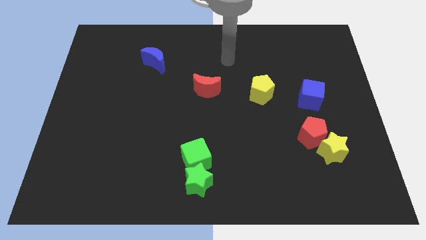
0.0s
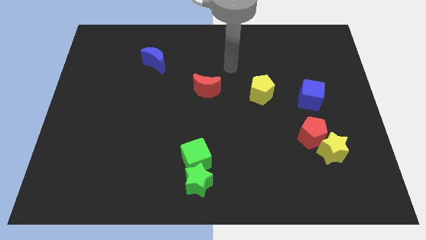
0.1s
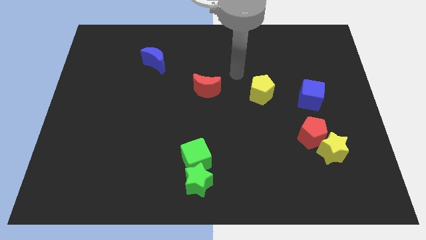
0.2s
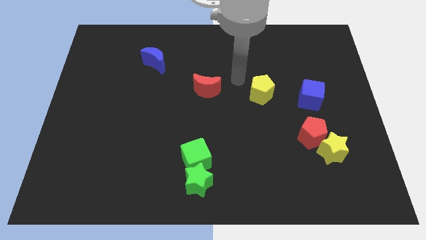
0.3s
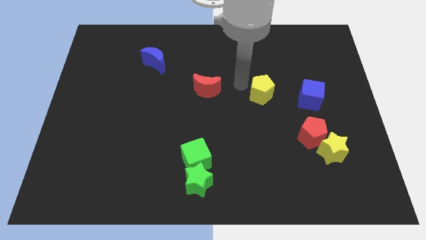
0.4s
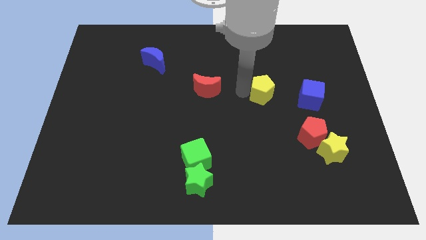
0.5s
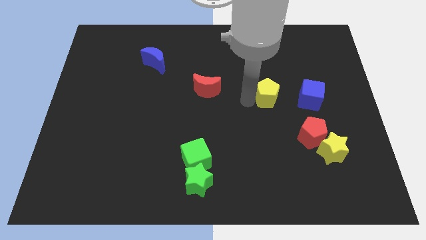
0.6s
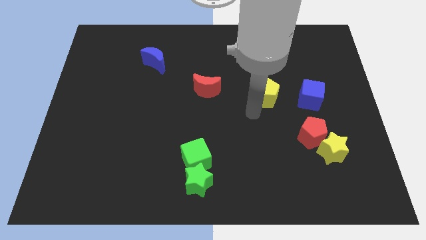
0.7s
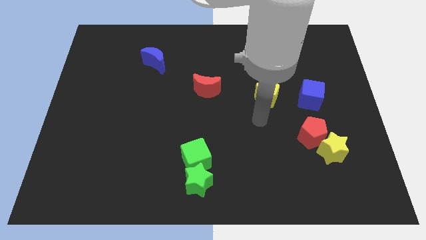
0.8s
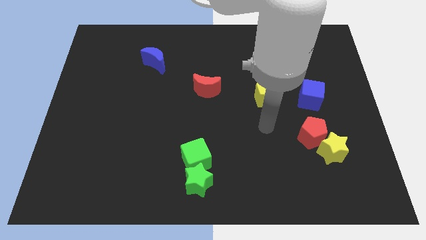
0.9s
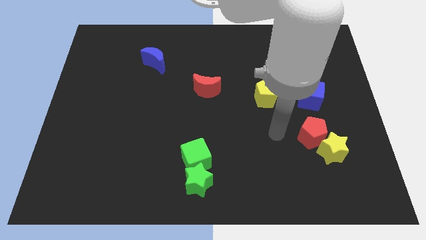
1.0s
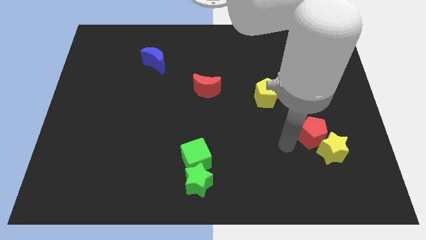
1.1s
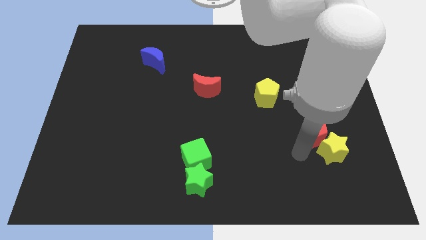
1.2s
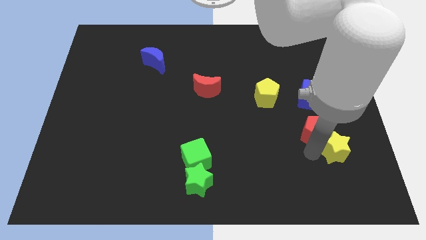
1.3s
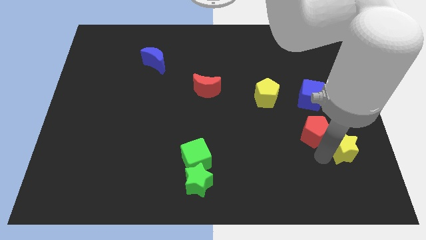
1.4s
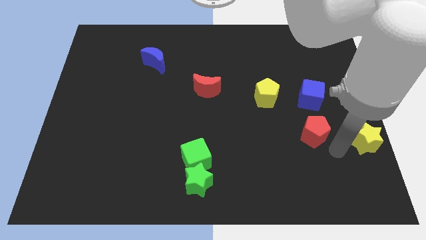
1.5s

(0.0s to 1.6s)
separate the red pentagon from the yellow star

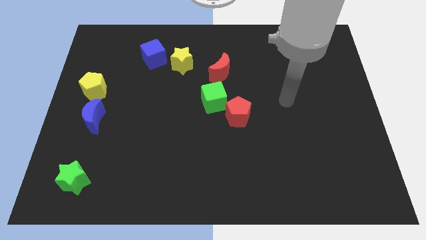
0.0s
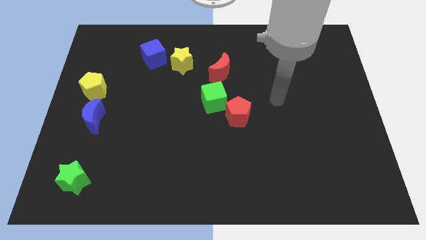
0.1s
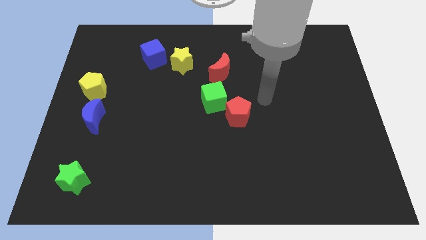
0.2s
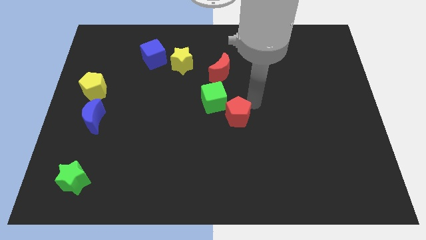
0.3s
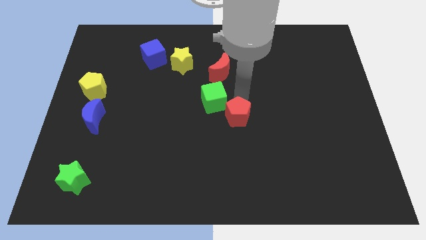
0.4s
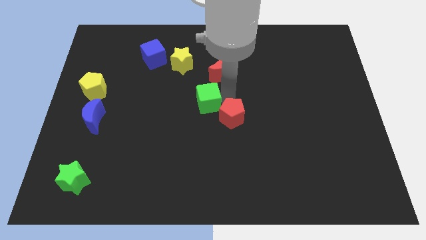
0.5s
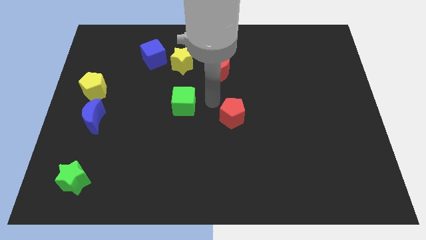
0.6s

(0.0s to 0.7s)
move the red pentagon away from the green cube

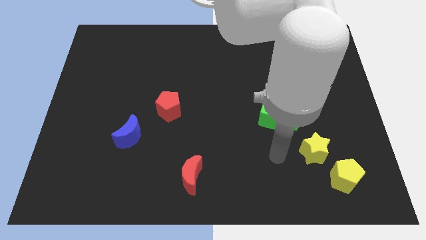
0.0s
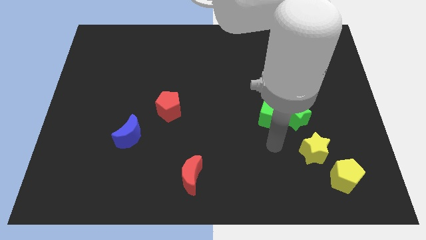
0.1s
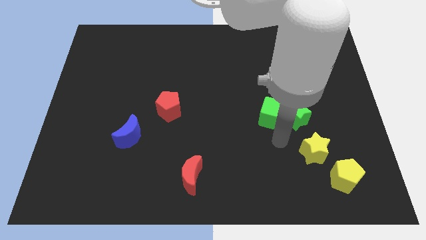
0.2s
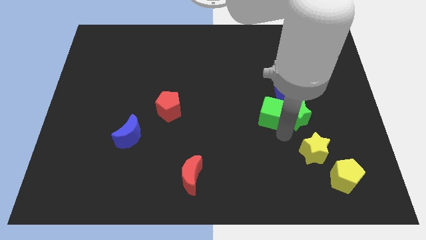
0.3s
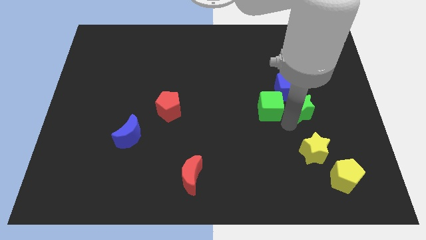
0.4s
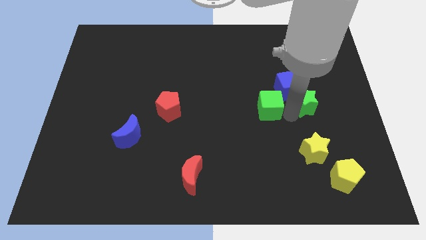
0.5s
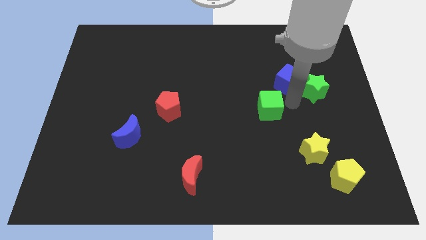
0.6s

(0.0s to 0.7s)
move the green cube away from the green star and blue cube

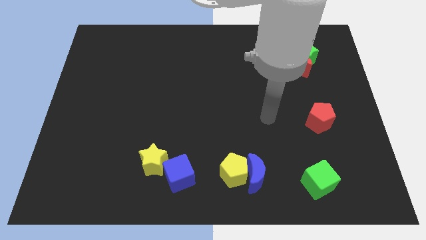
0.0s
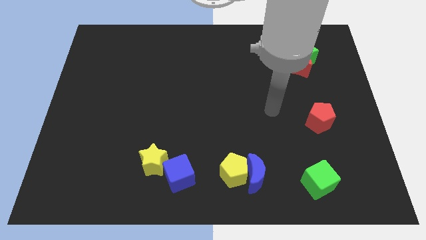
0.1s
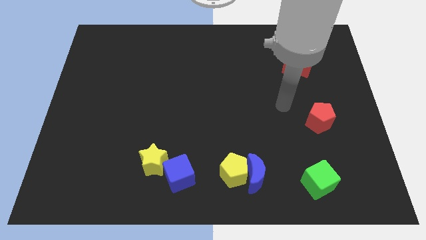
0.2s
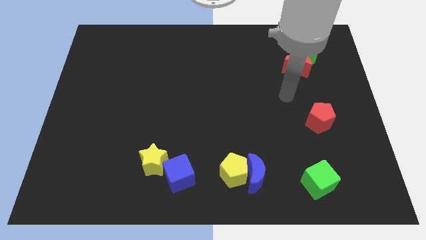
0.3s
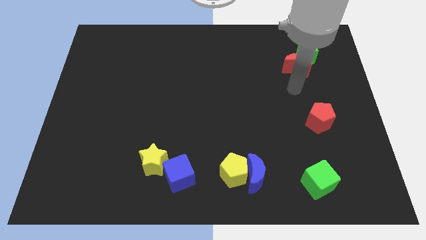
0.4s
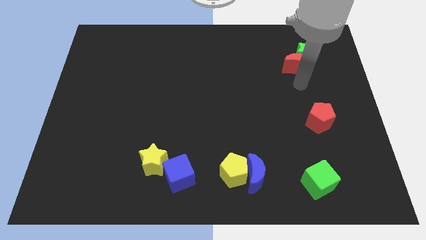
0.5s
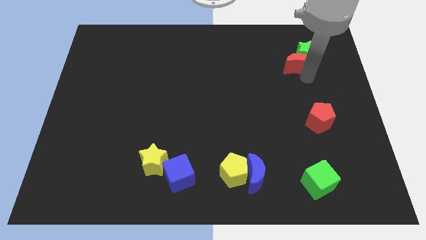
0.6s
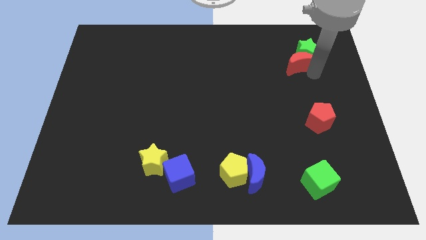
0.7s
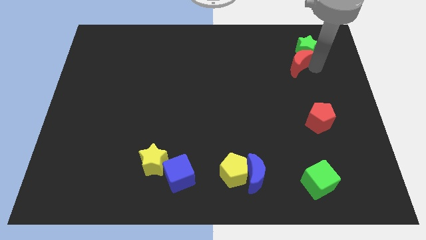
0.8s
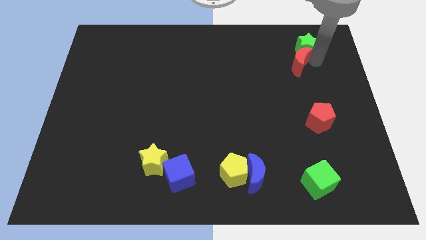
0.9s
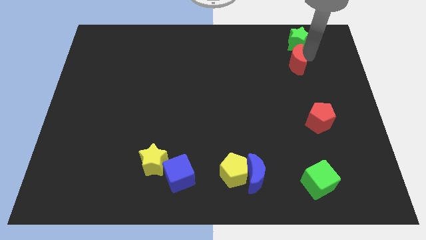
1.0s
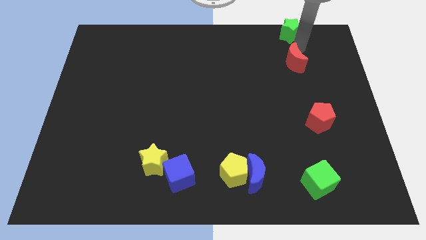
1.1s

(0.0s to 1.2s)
separate the red moon from the green star

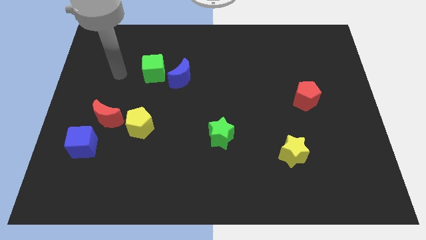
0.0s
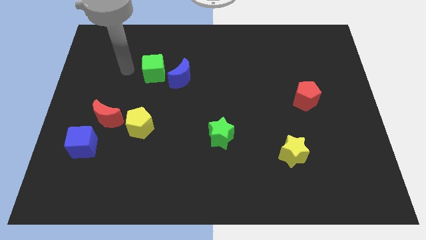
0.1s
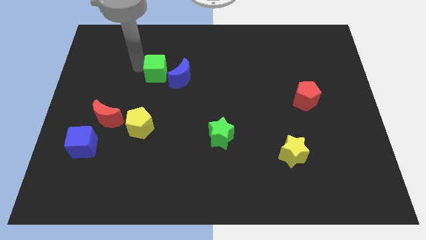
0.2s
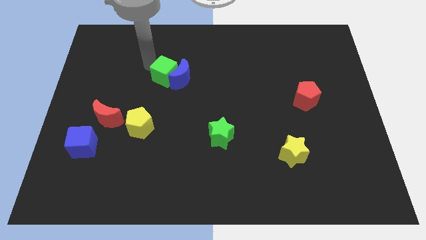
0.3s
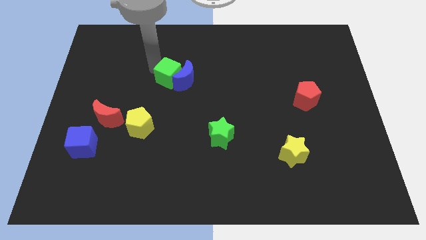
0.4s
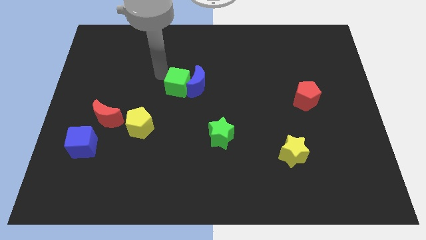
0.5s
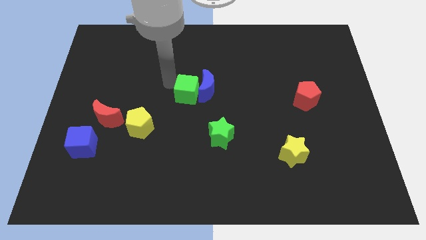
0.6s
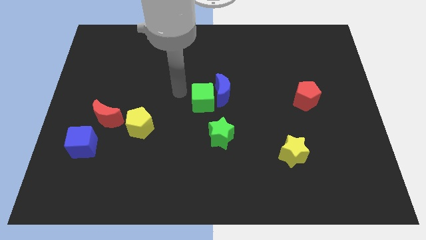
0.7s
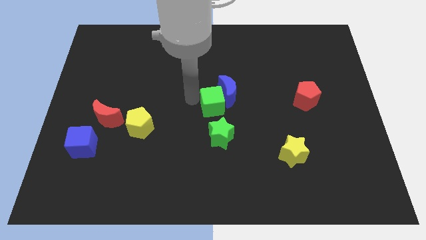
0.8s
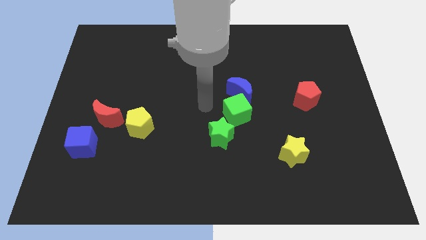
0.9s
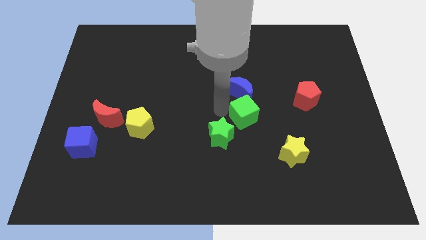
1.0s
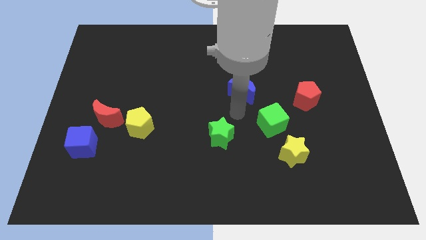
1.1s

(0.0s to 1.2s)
separate the blue moon from the green cube

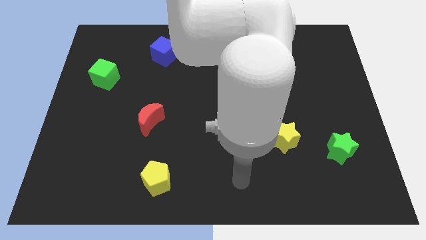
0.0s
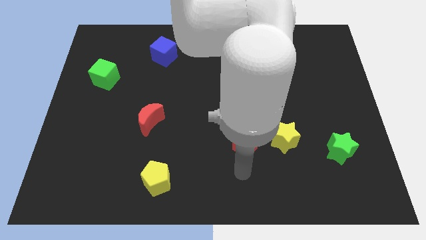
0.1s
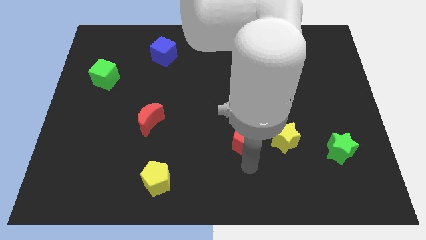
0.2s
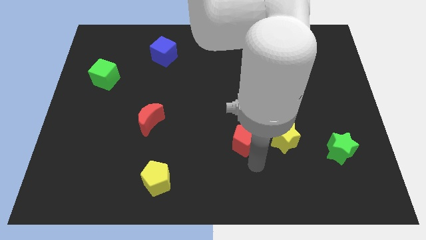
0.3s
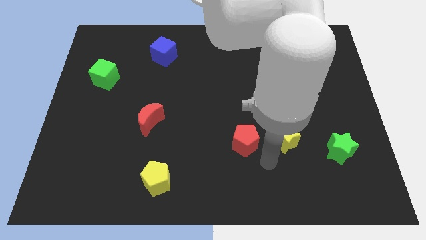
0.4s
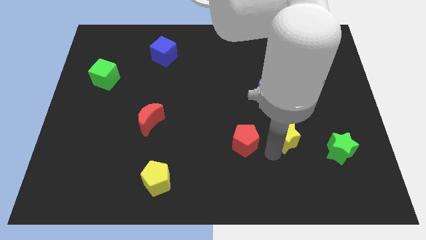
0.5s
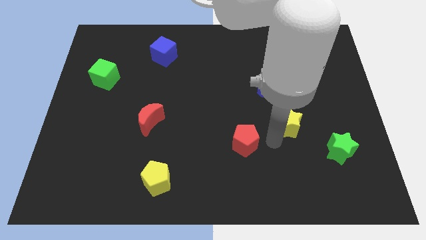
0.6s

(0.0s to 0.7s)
pull the red pentagon apart from the yellow star

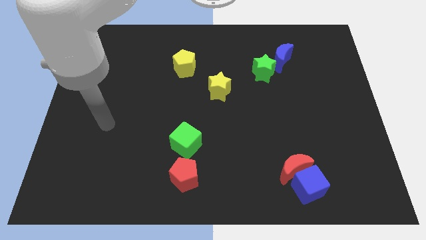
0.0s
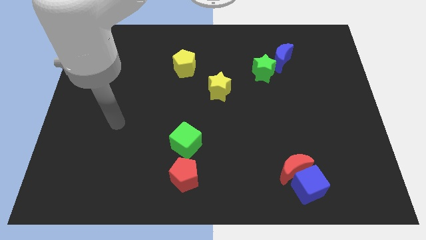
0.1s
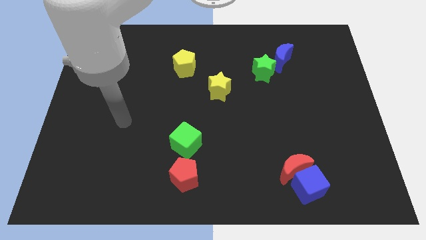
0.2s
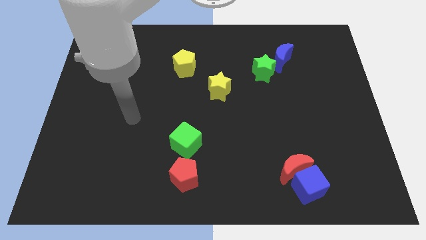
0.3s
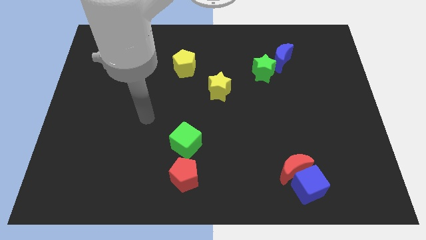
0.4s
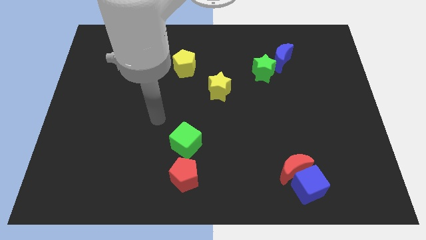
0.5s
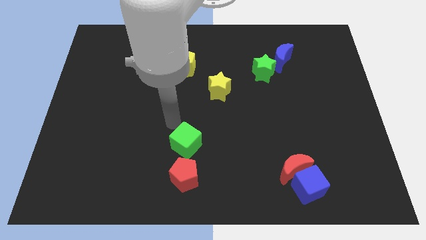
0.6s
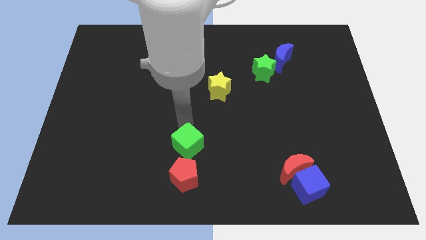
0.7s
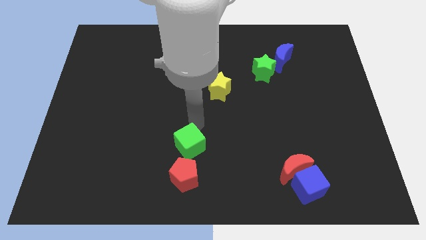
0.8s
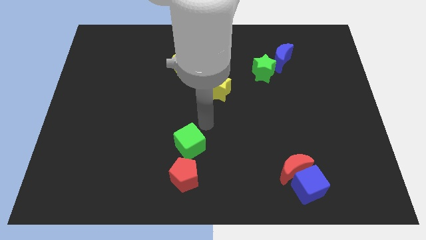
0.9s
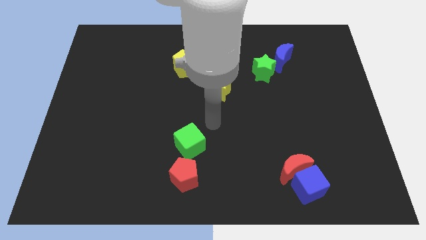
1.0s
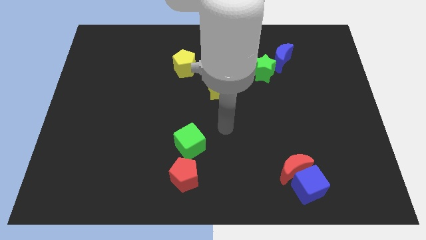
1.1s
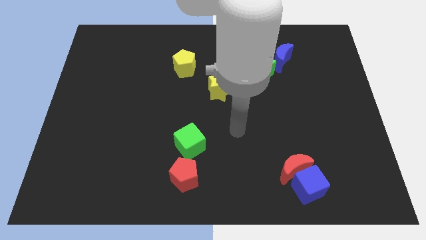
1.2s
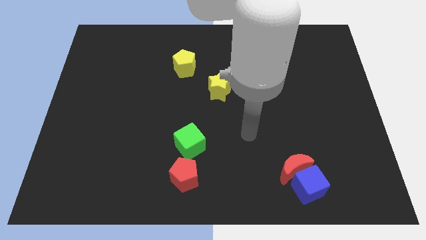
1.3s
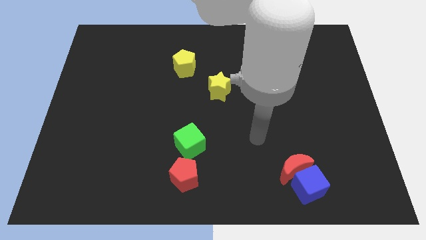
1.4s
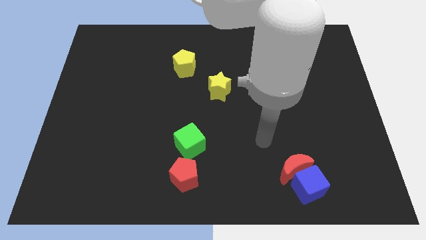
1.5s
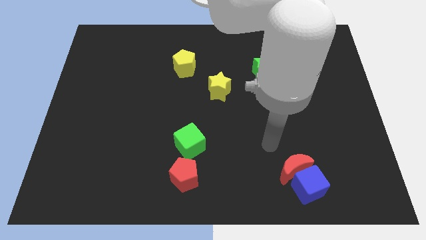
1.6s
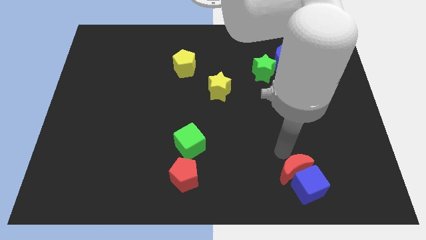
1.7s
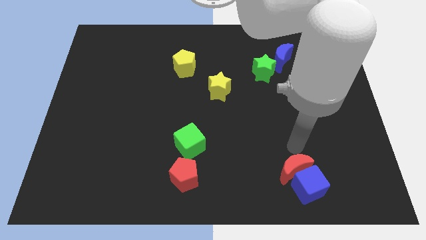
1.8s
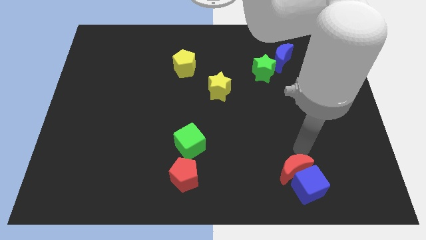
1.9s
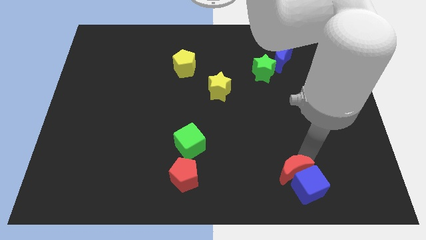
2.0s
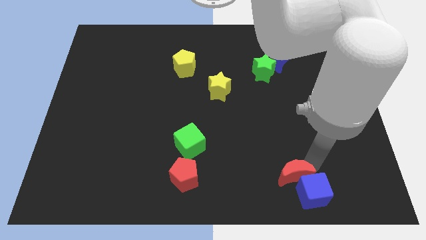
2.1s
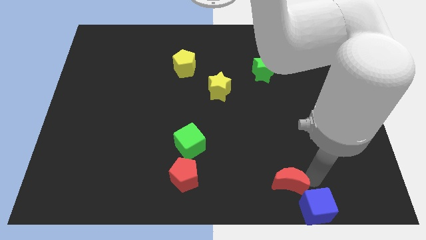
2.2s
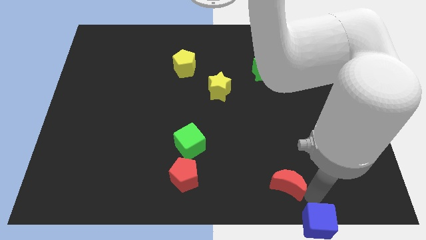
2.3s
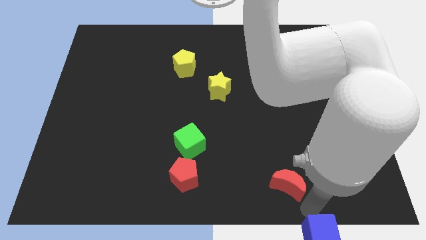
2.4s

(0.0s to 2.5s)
pull the red moon apart from the blue cube

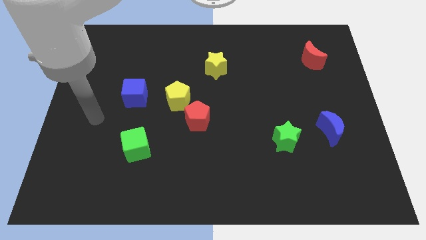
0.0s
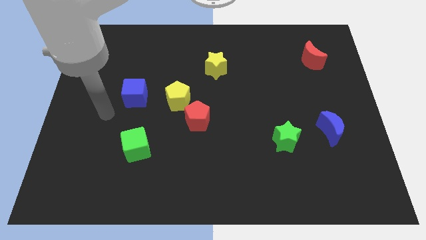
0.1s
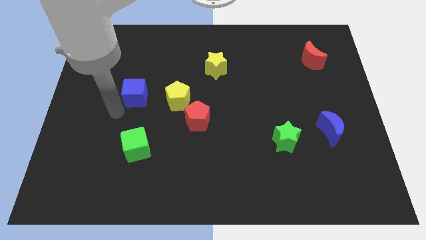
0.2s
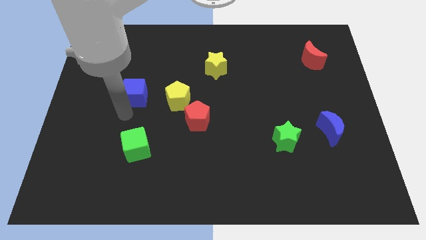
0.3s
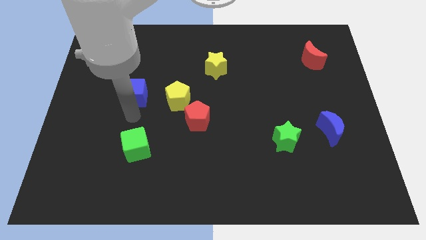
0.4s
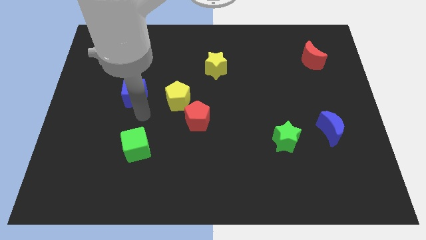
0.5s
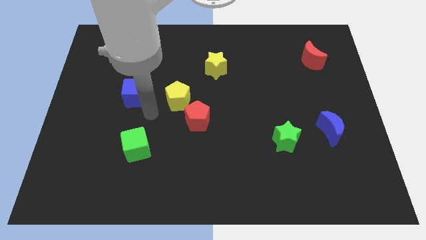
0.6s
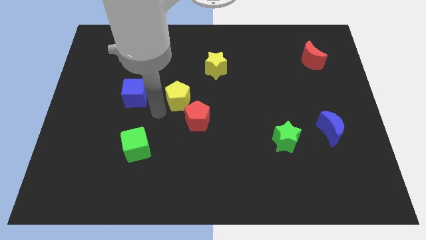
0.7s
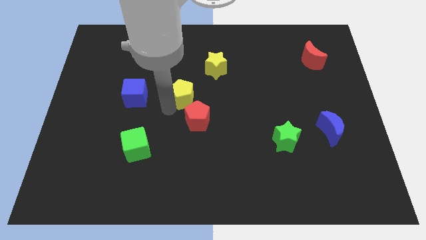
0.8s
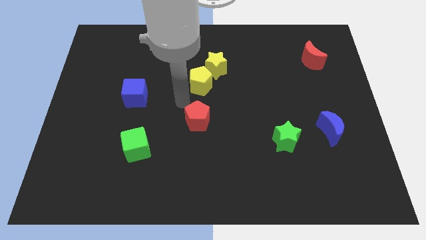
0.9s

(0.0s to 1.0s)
separate the red pentagon from the yellow pentagon
